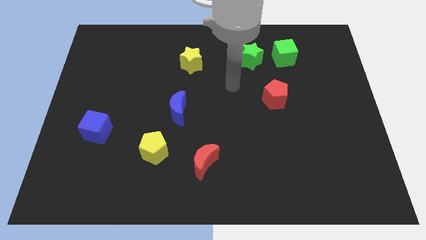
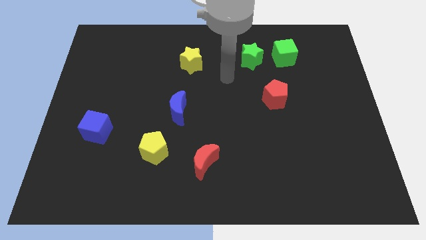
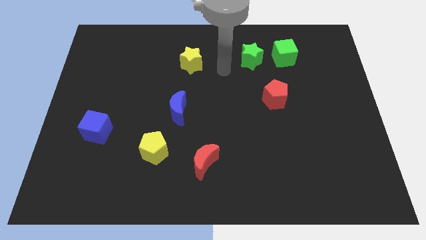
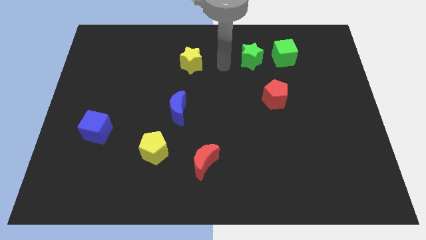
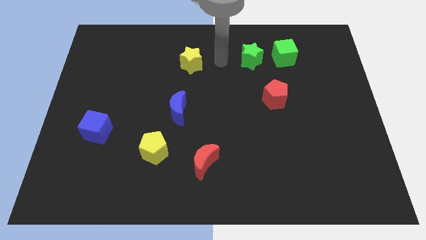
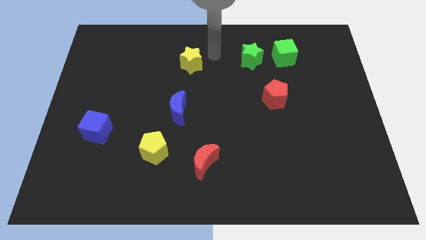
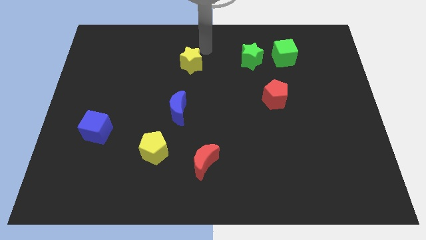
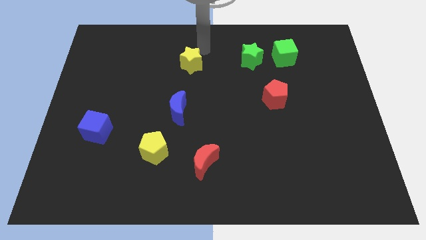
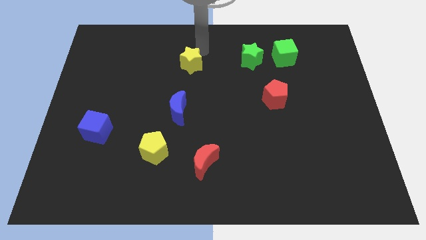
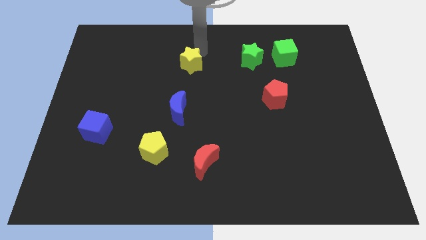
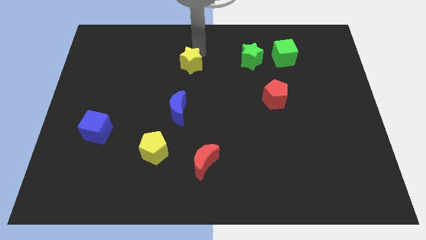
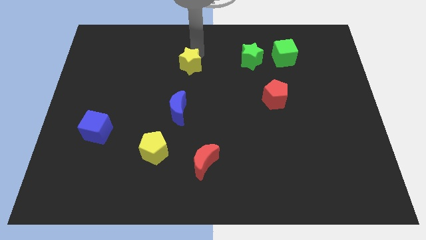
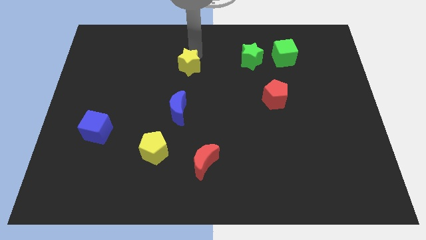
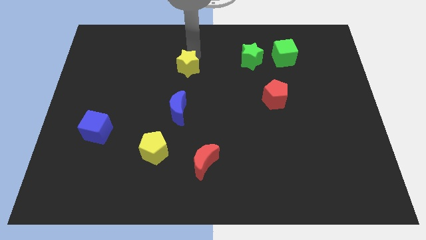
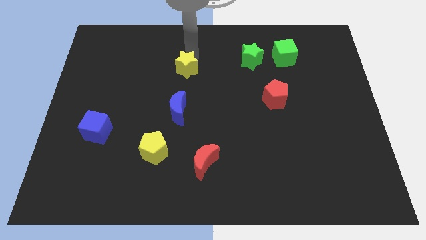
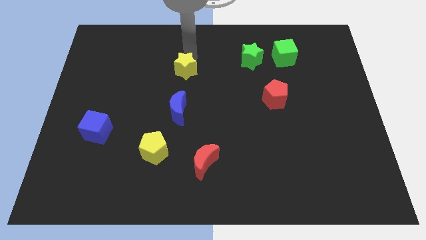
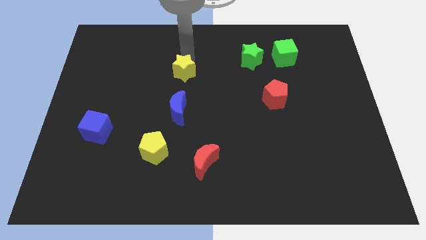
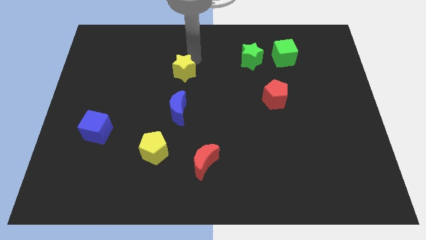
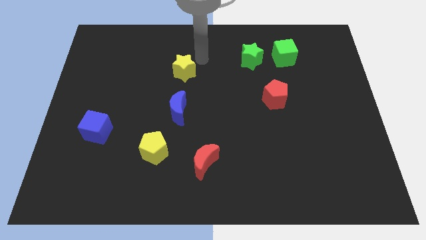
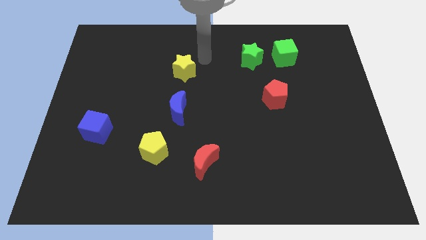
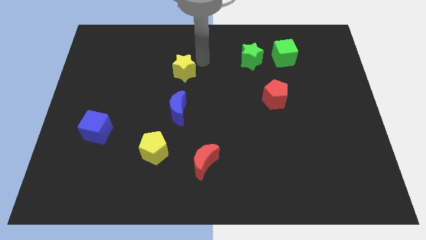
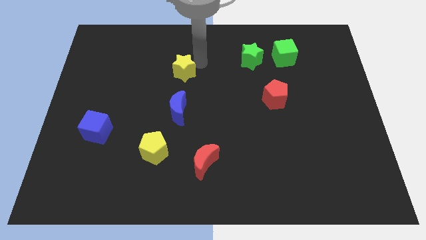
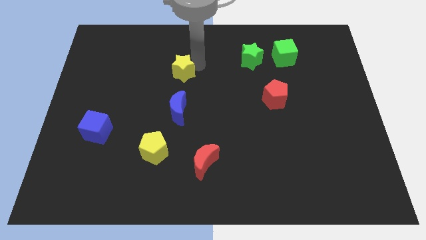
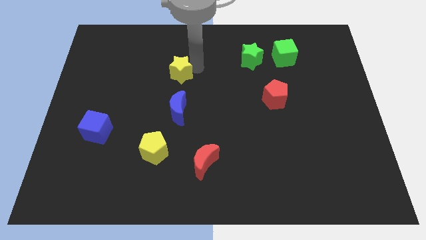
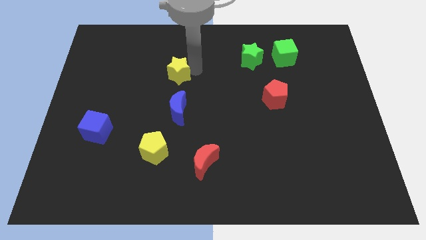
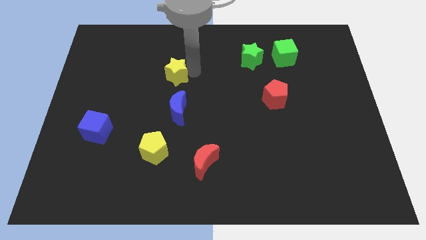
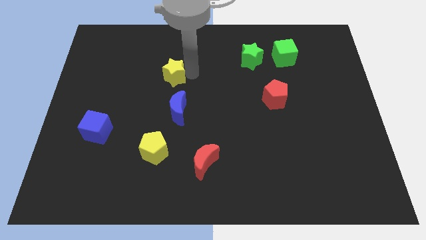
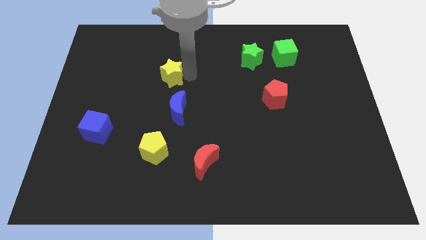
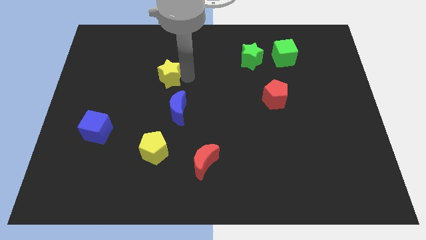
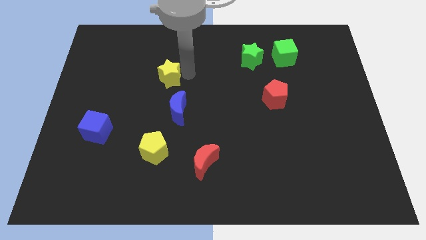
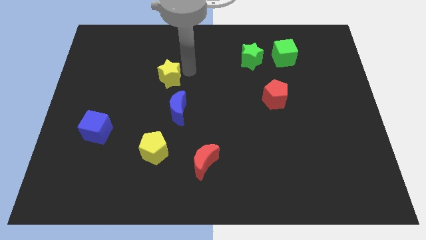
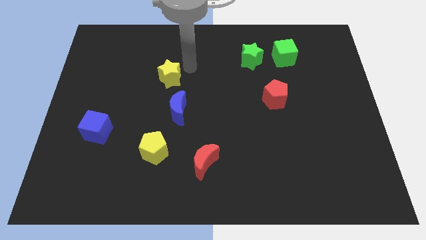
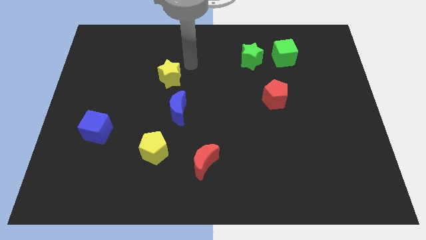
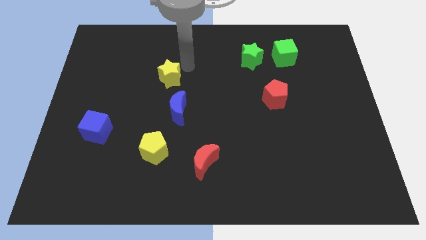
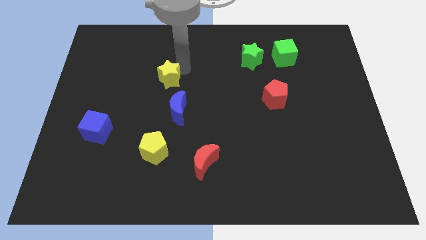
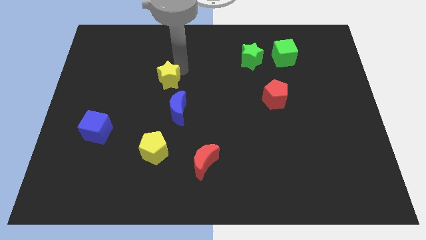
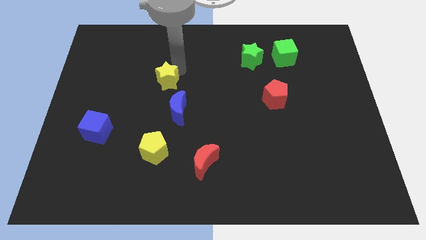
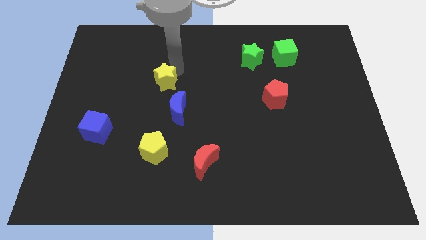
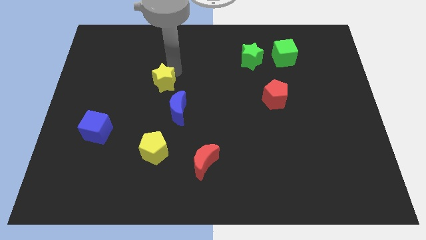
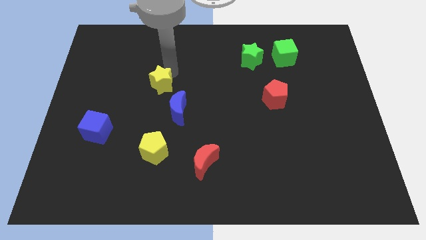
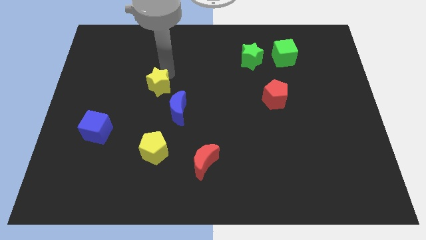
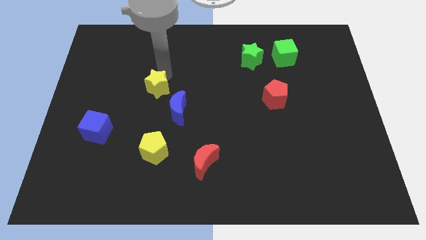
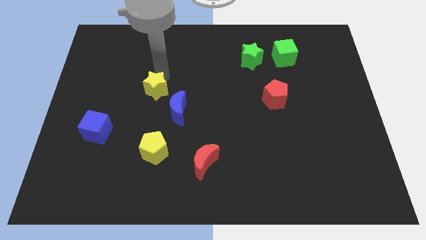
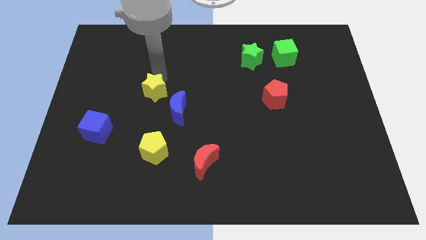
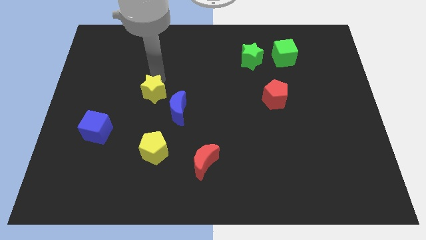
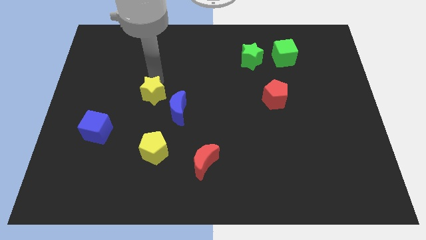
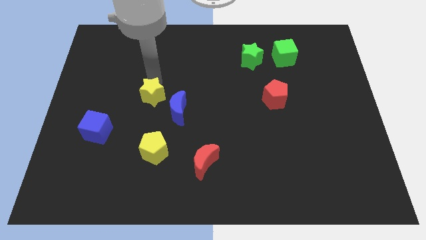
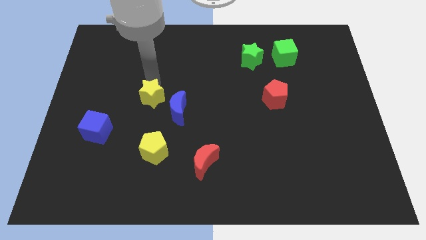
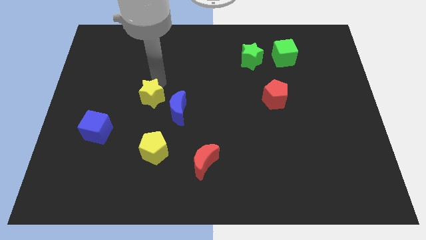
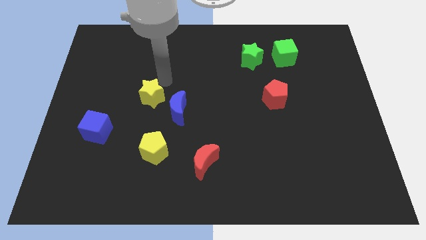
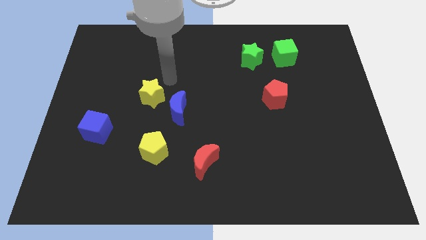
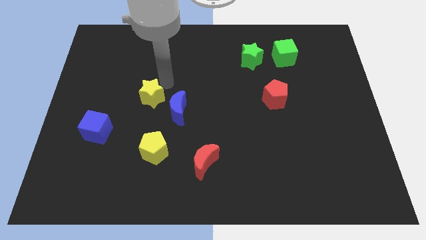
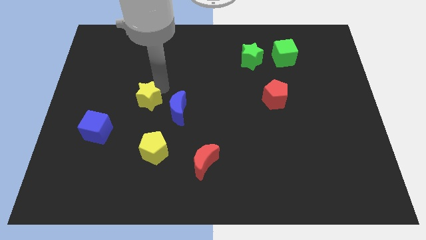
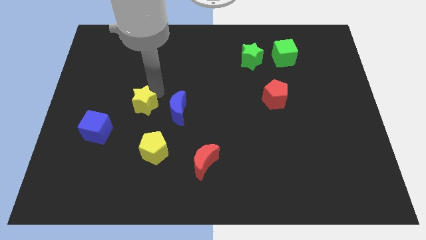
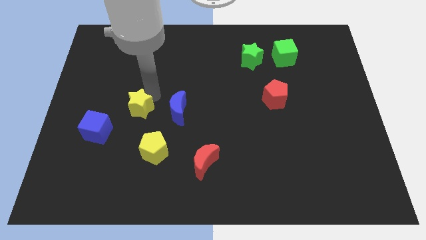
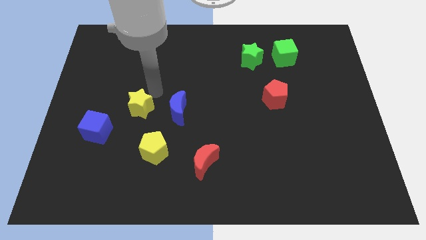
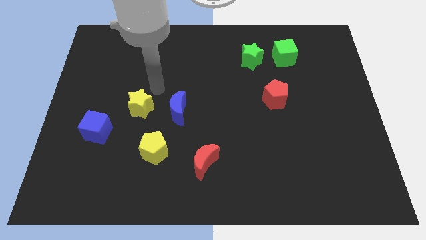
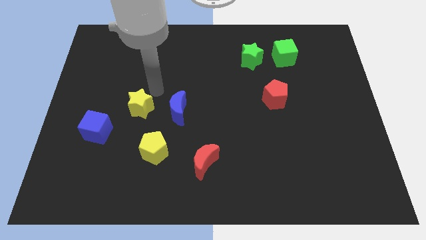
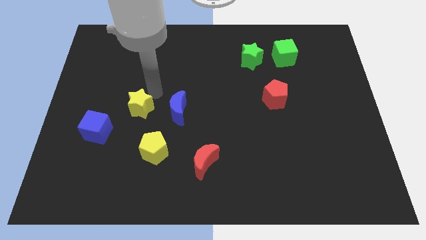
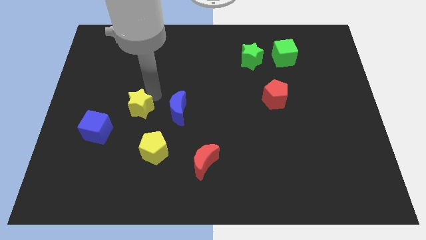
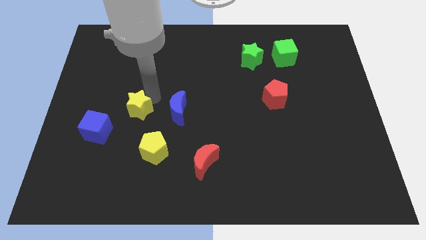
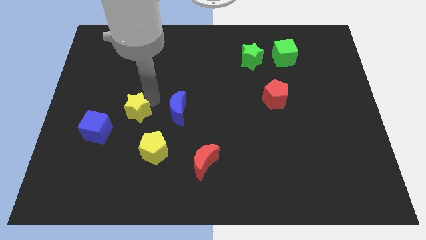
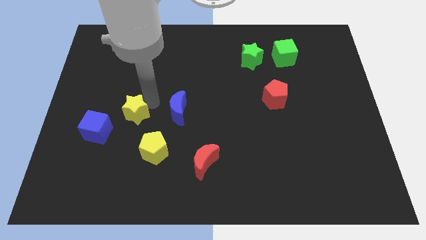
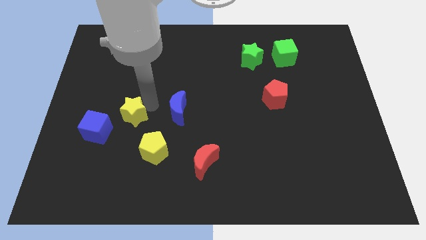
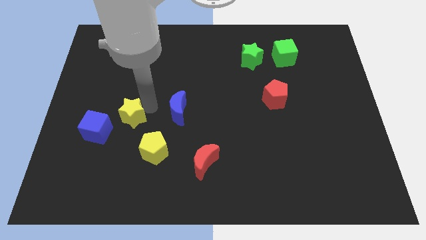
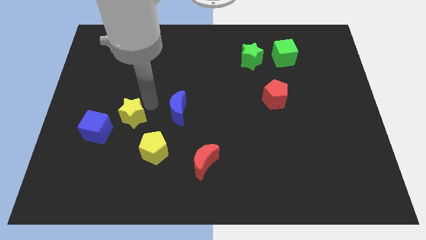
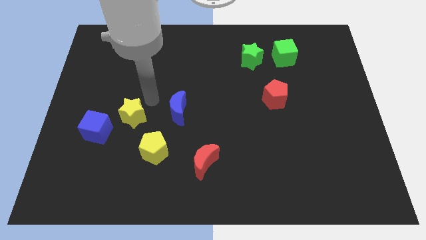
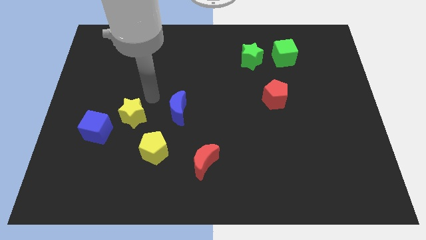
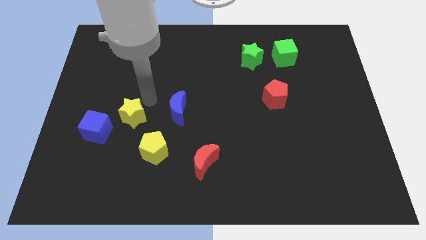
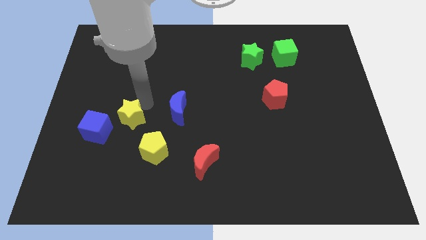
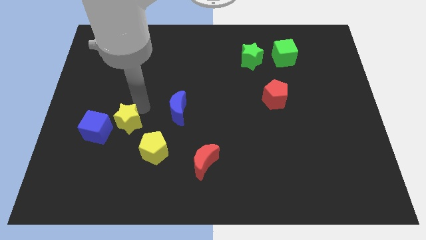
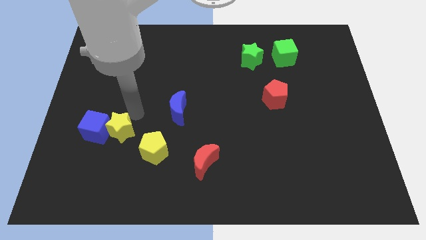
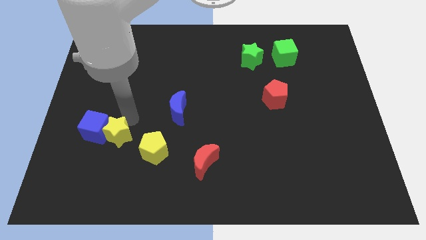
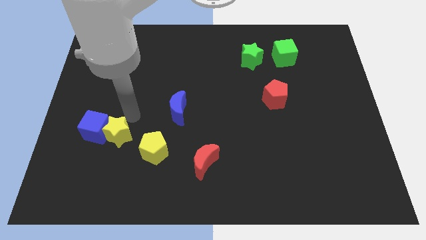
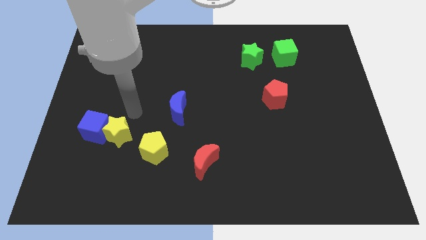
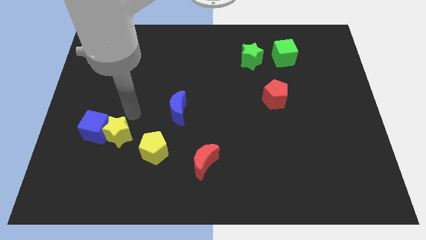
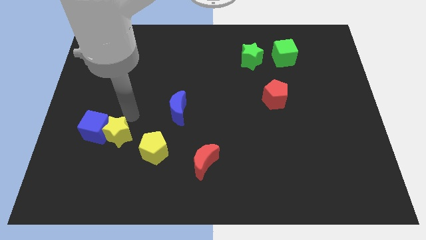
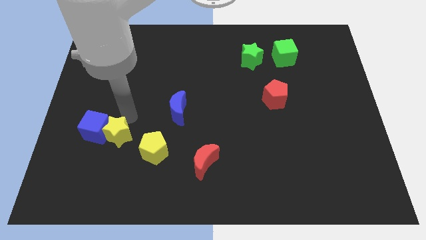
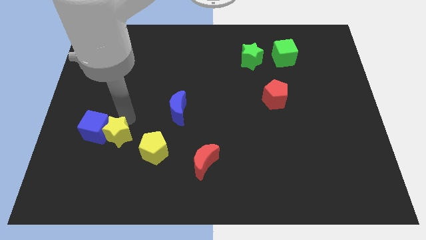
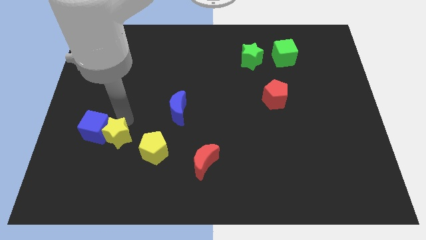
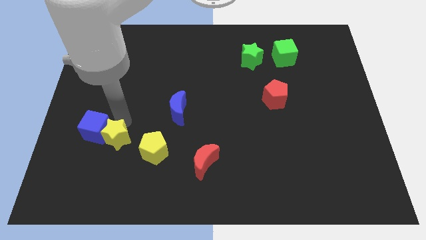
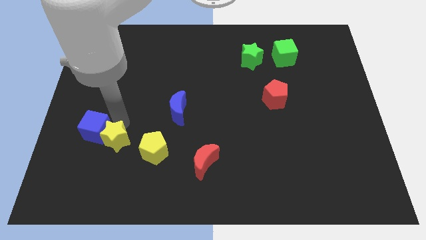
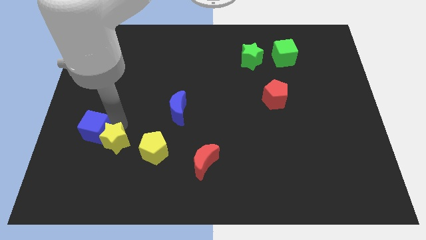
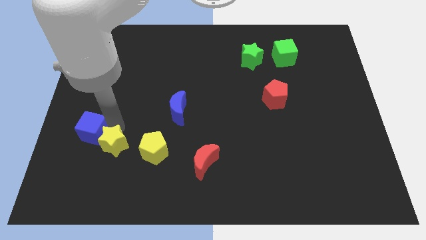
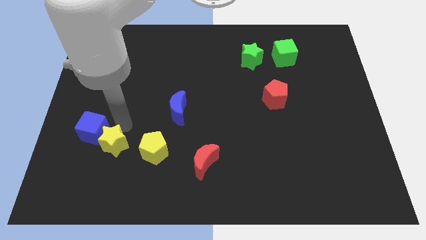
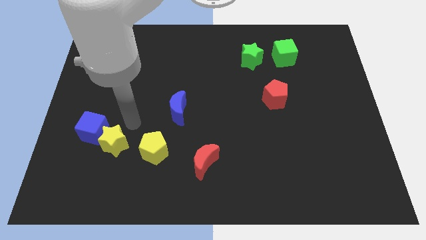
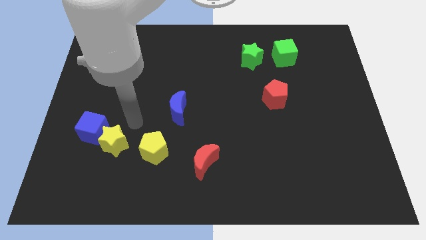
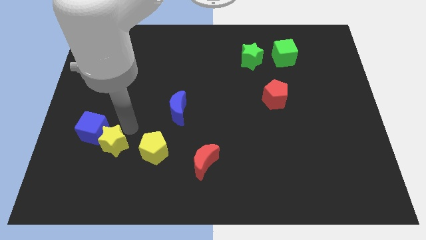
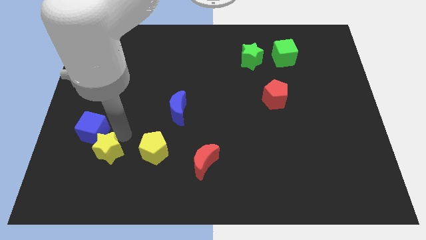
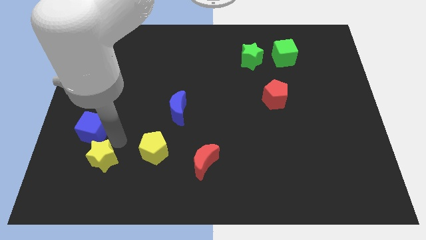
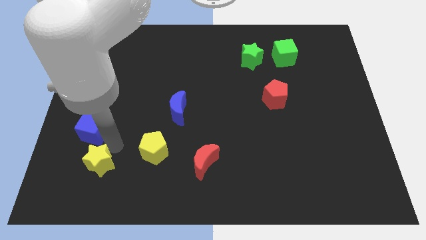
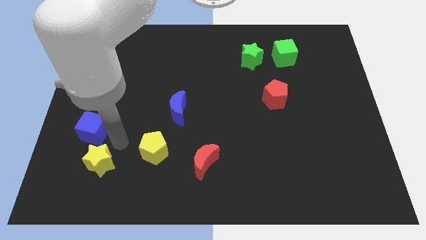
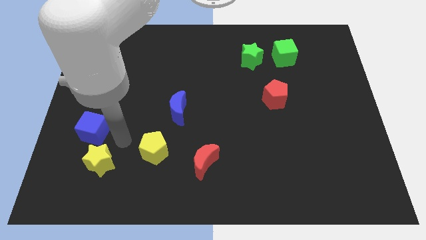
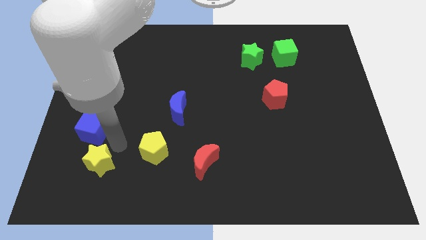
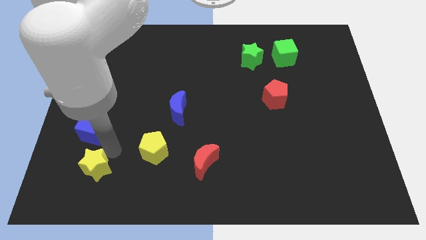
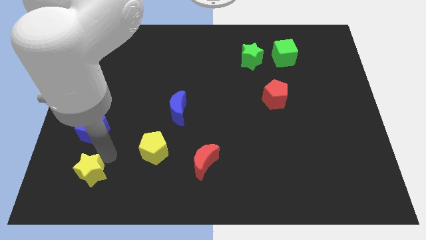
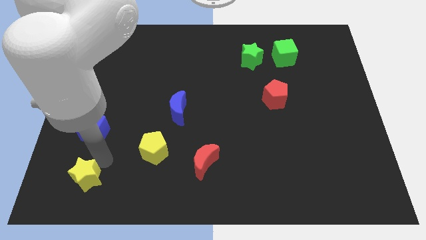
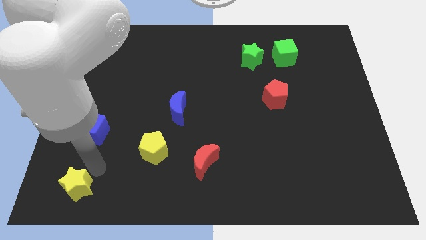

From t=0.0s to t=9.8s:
slide the yellow star to the lower left corner
